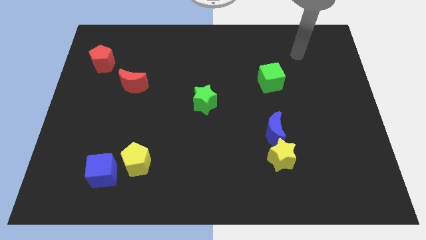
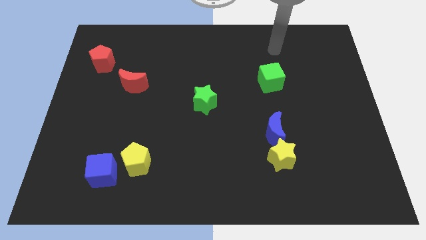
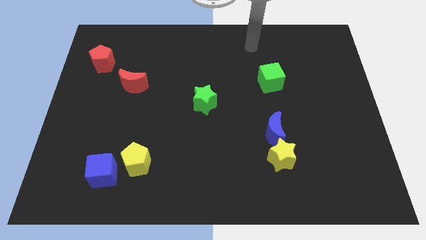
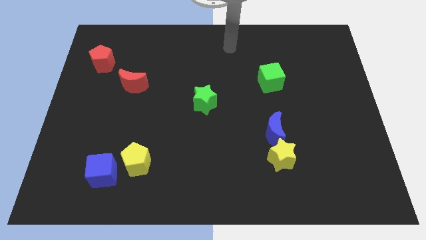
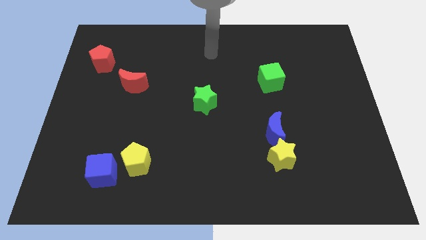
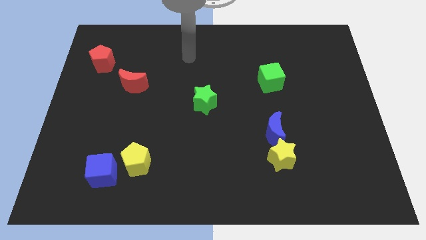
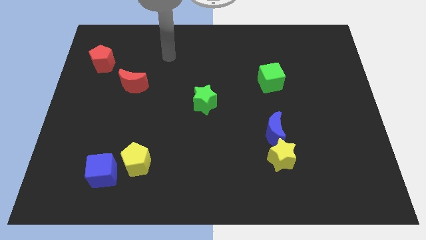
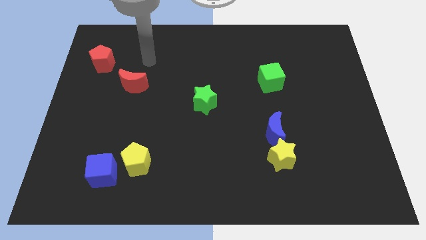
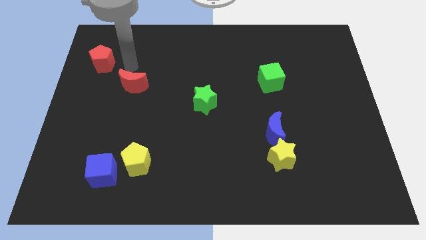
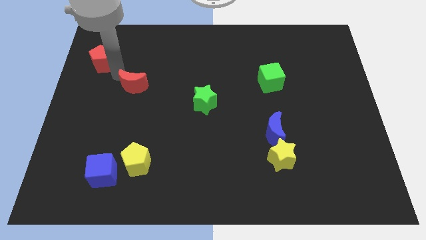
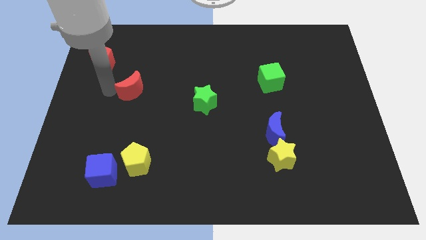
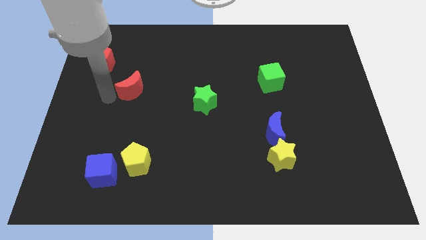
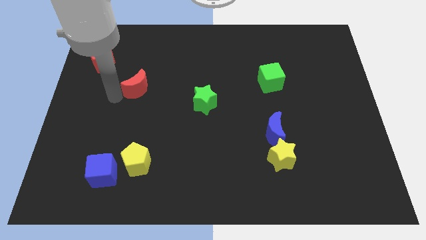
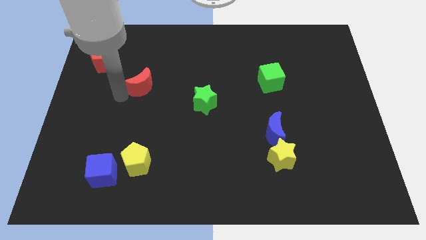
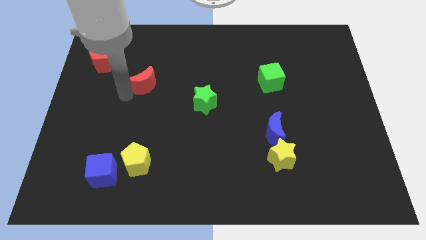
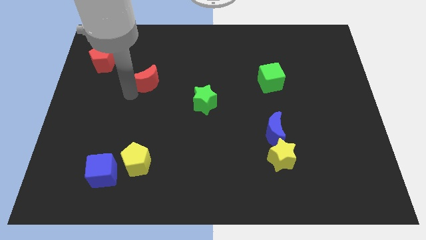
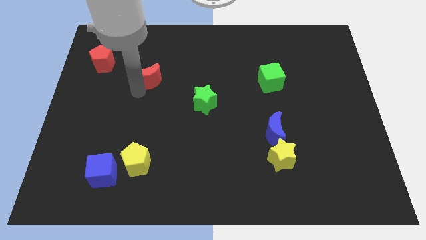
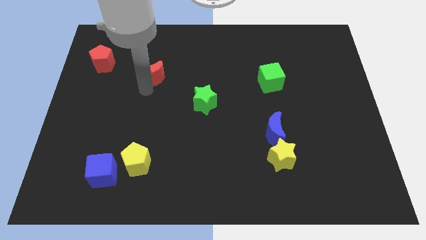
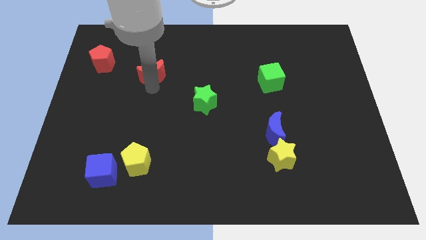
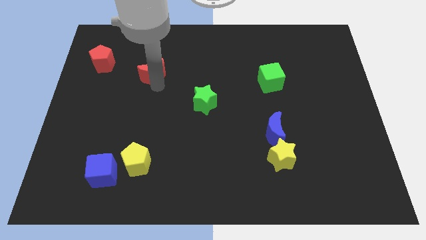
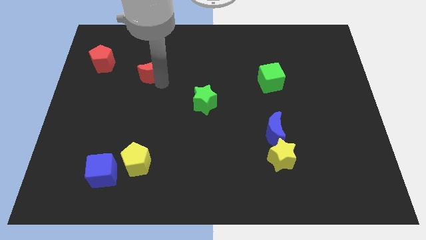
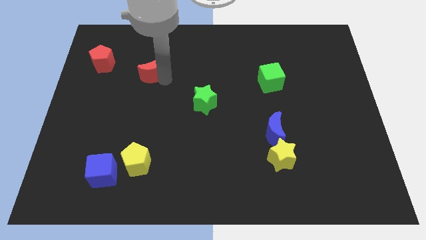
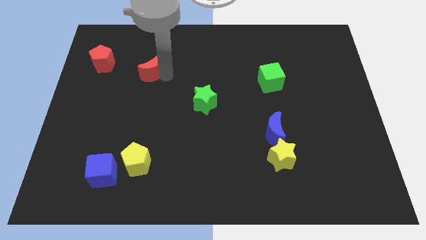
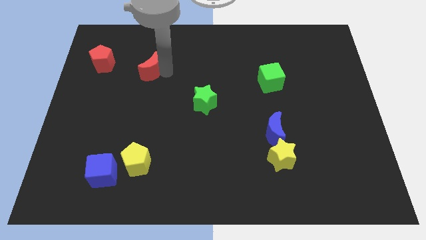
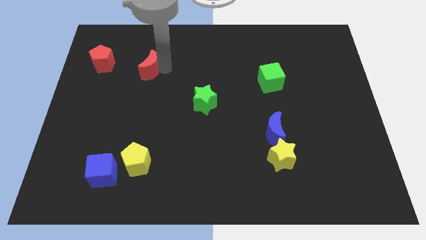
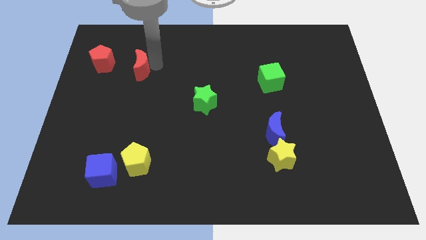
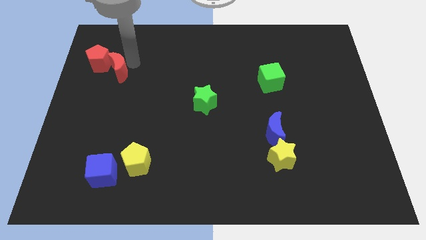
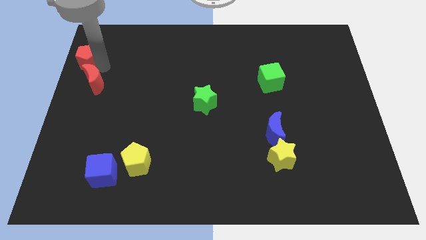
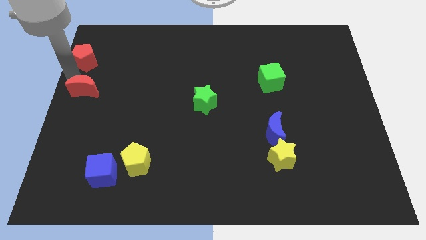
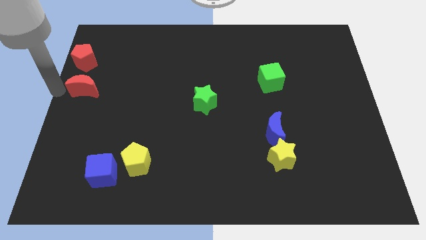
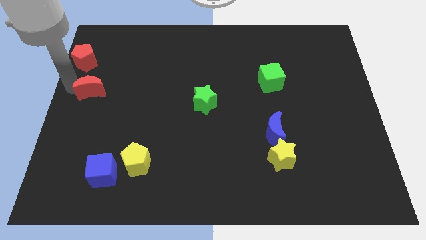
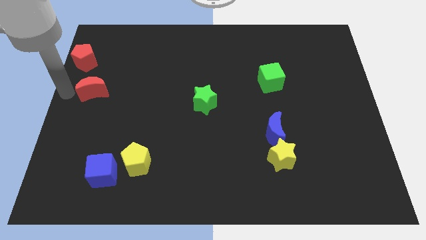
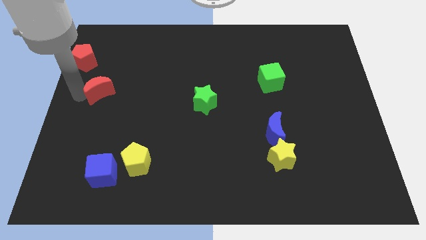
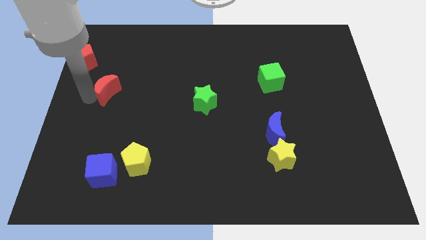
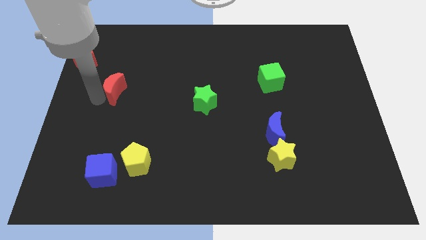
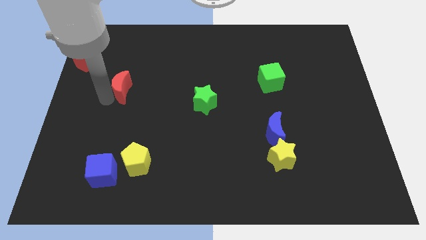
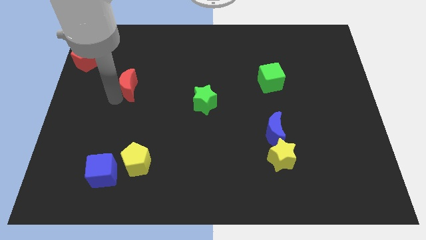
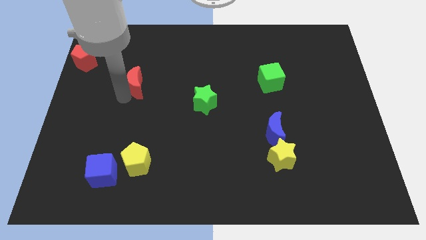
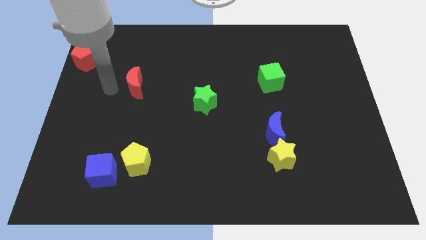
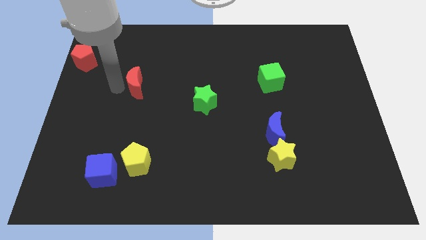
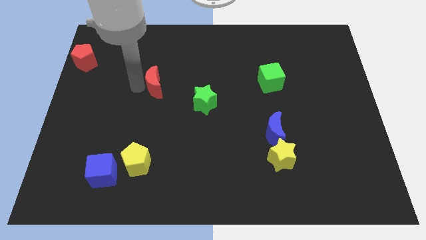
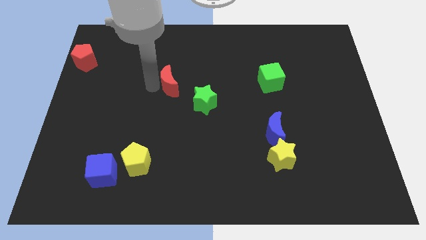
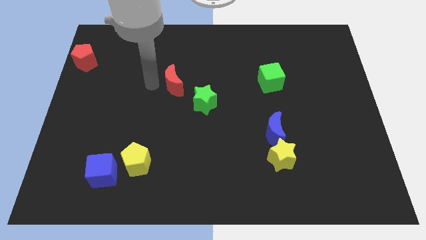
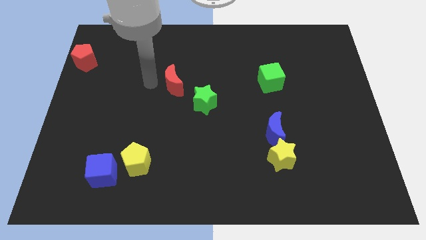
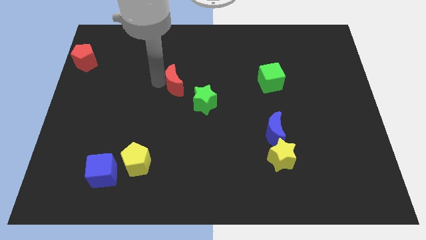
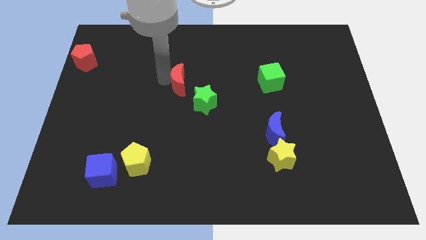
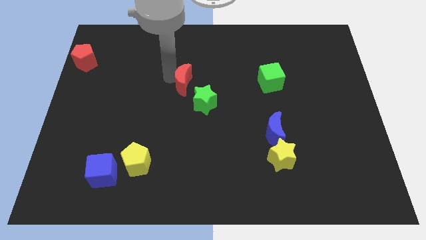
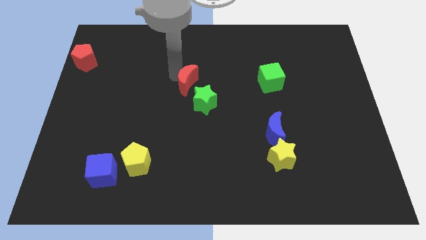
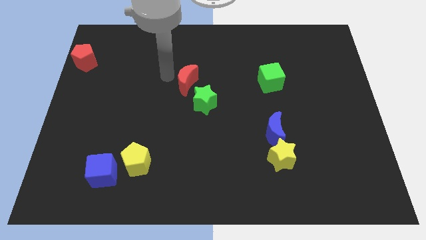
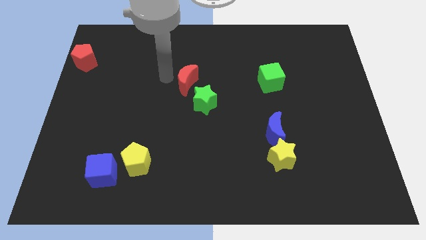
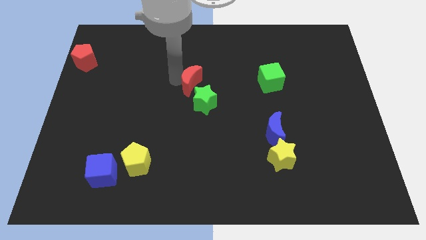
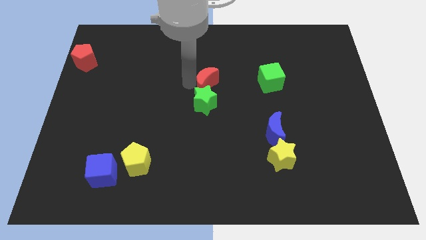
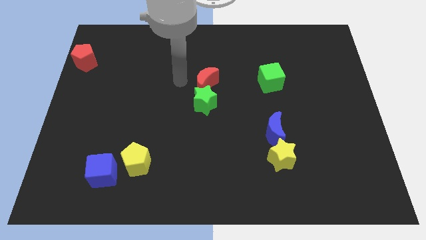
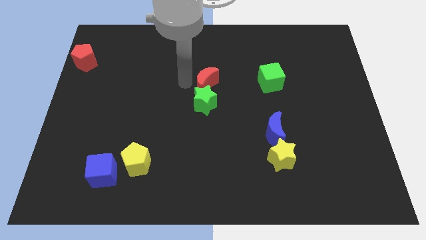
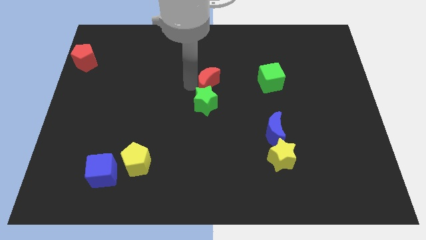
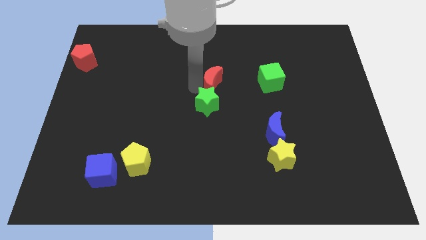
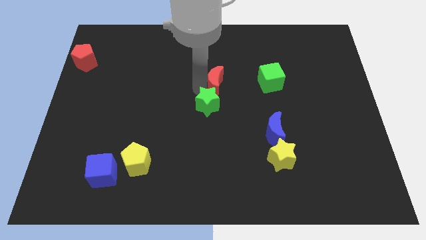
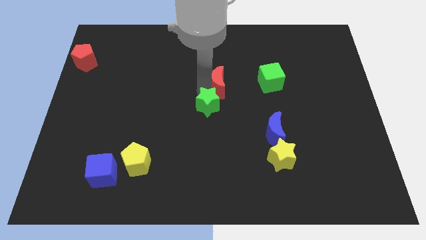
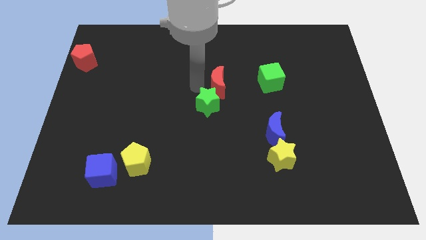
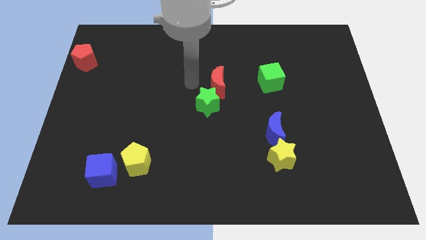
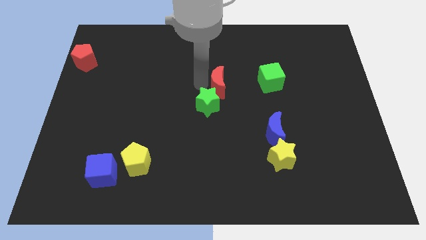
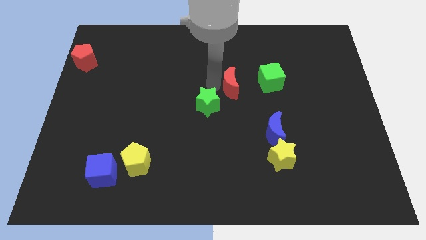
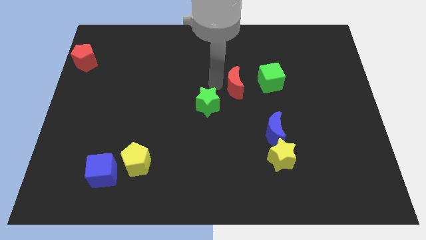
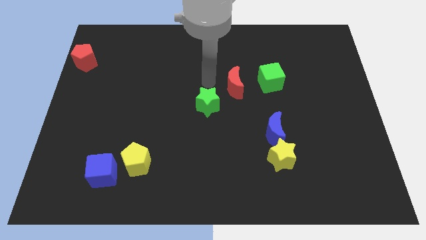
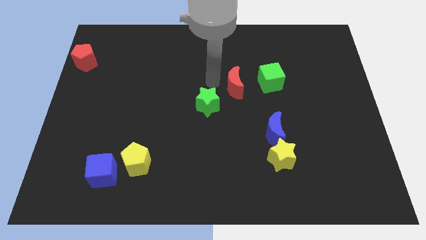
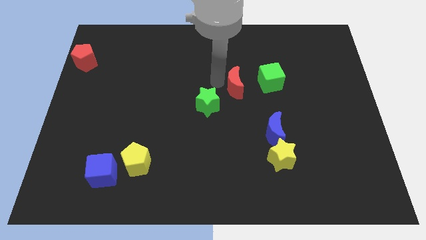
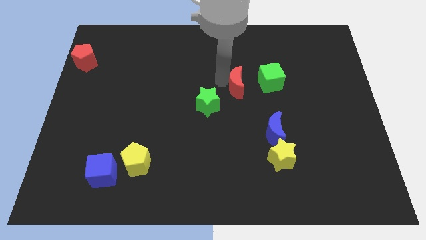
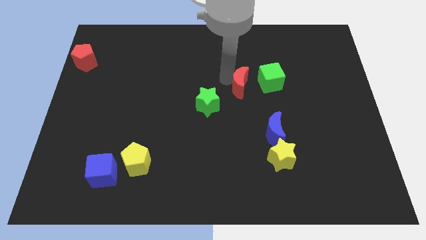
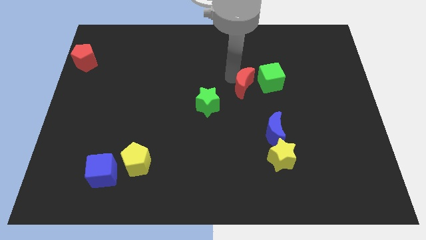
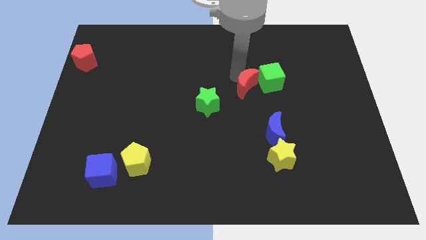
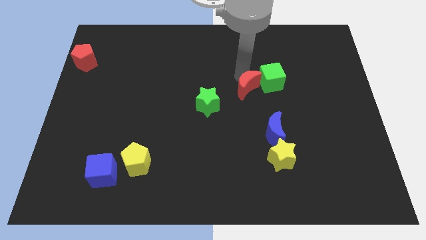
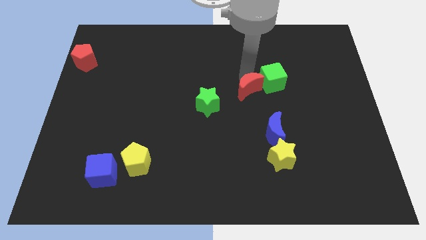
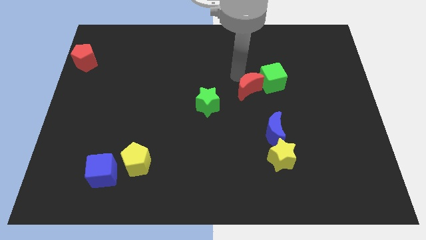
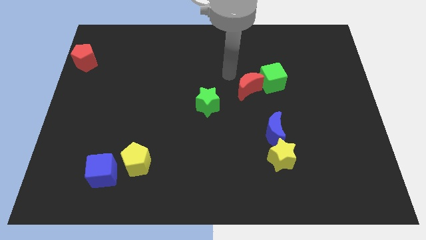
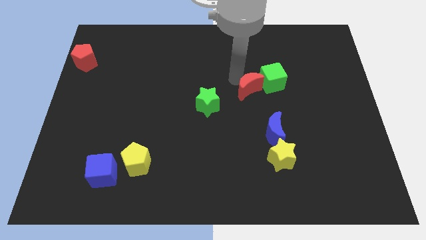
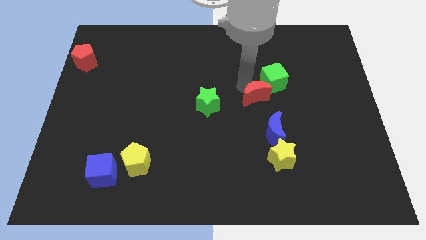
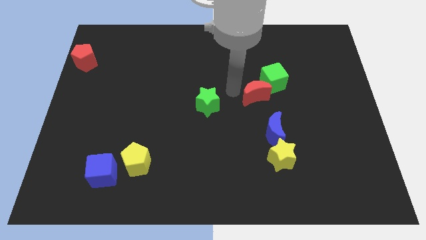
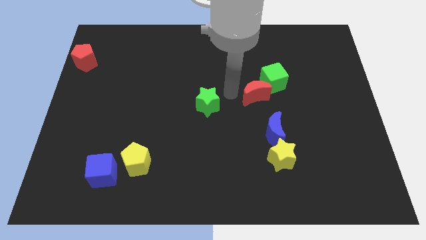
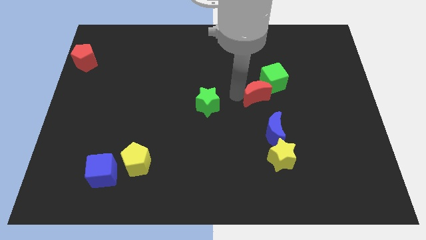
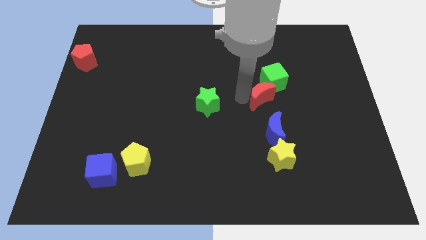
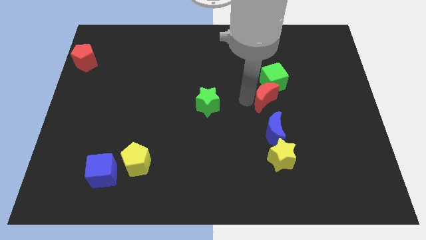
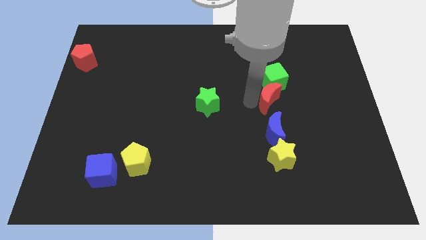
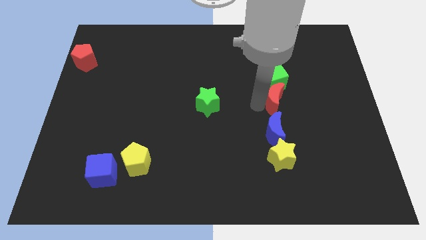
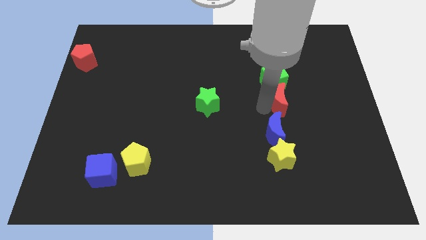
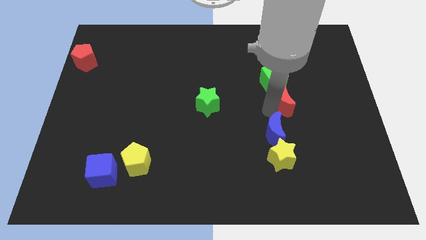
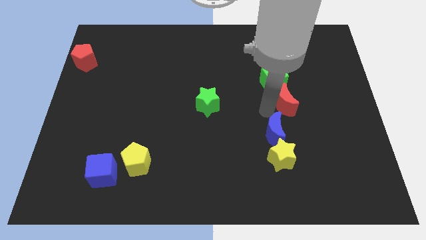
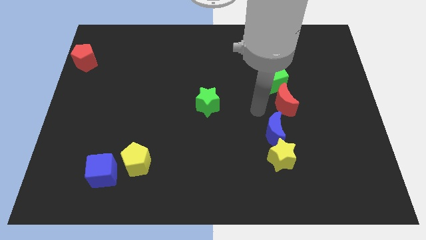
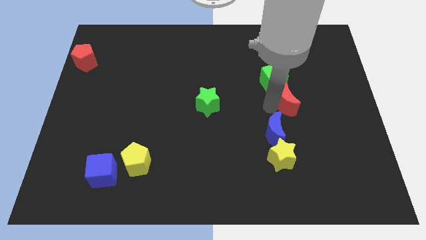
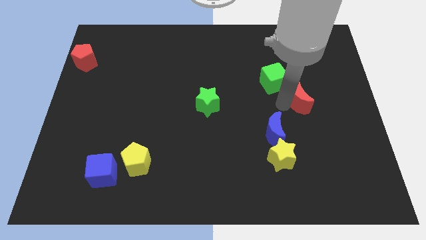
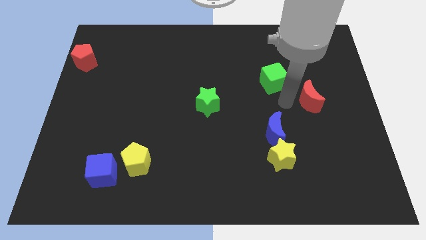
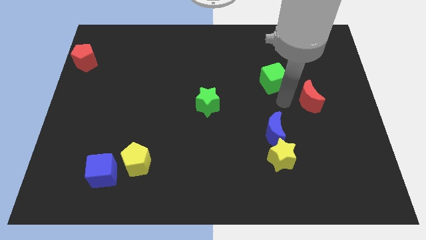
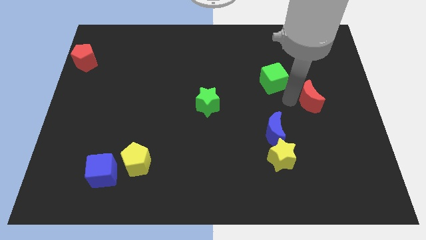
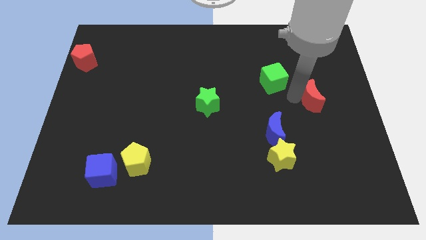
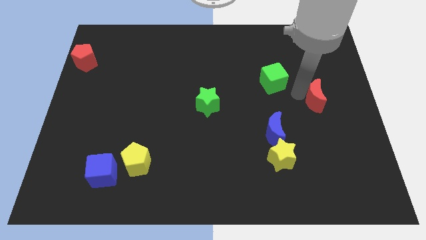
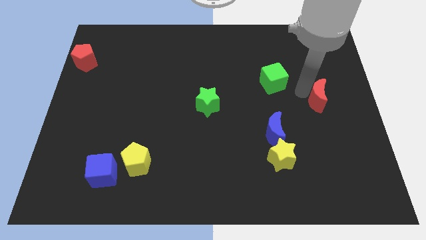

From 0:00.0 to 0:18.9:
move the red moon to the right side of the board
